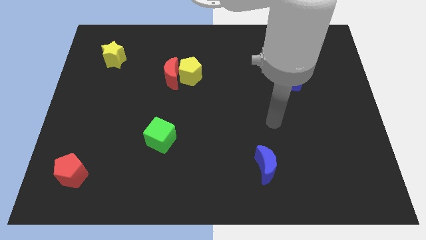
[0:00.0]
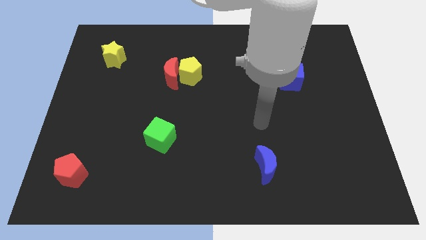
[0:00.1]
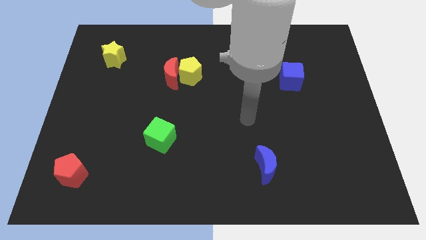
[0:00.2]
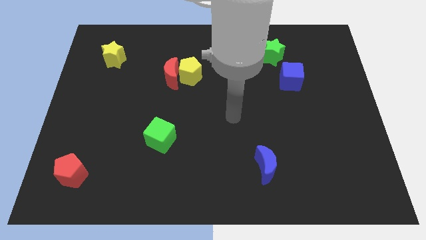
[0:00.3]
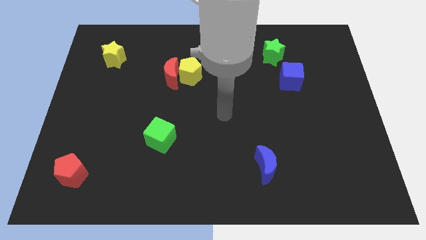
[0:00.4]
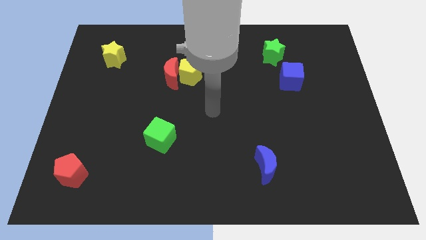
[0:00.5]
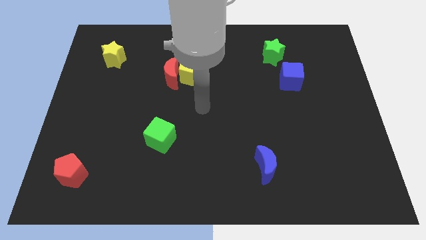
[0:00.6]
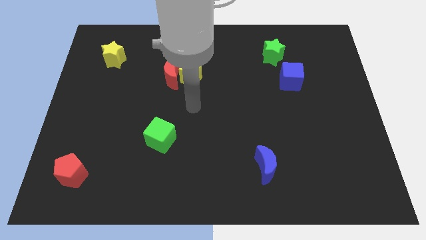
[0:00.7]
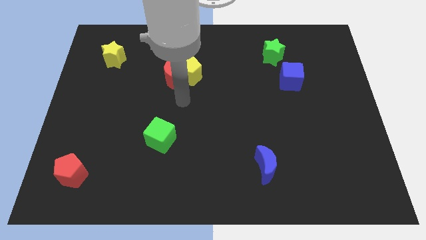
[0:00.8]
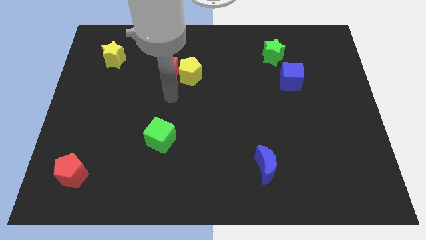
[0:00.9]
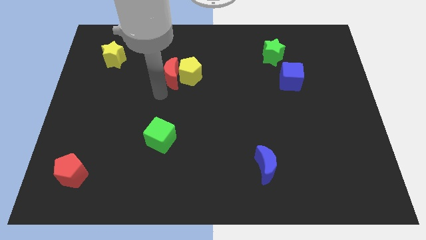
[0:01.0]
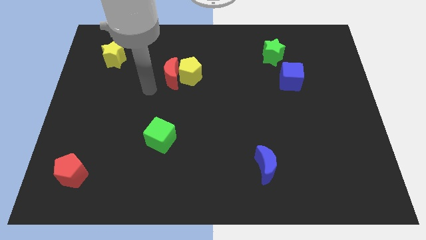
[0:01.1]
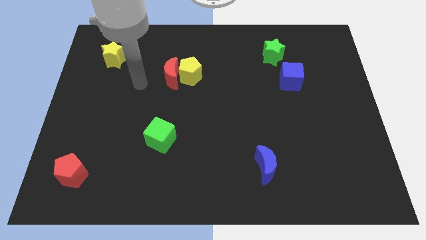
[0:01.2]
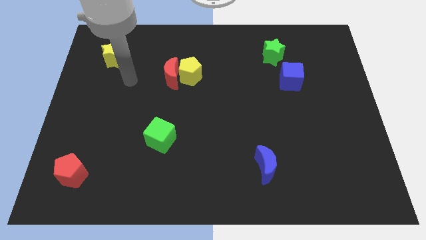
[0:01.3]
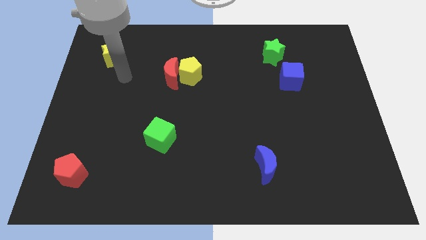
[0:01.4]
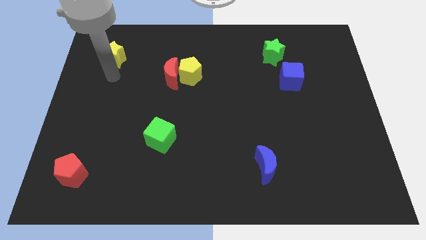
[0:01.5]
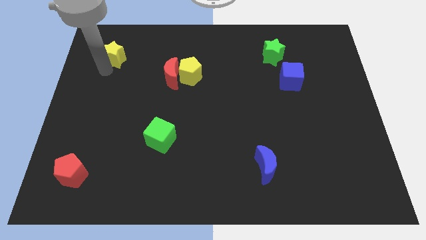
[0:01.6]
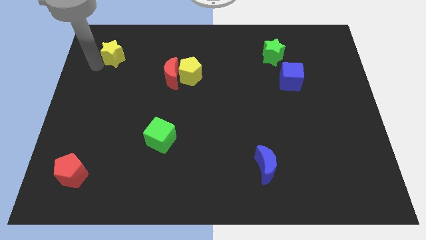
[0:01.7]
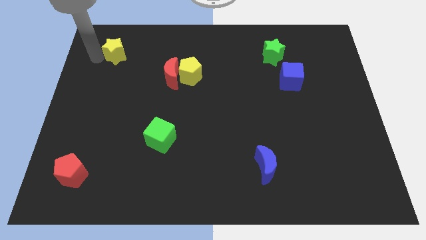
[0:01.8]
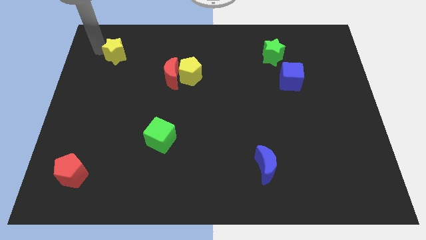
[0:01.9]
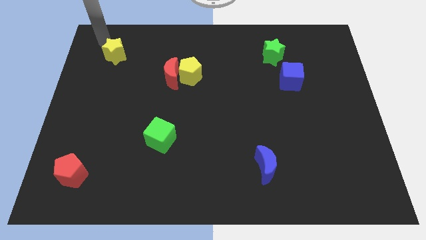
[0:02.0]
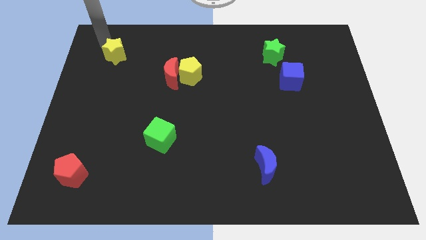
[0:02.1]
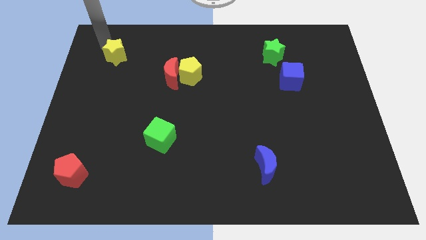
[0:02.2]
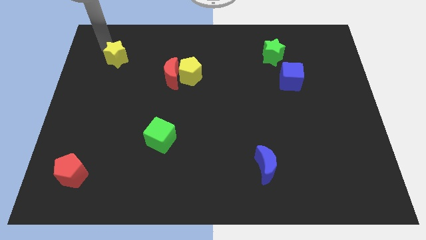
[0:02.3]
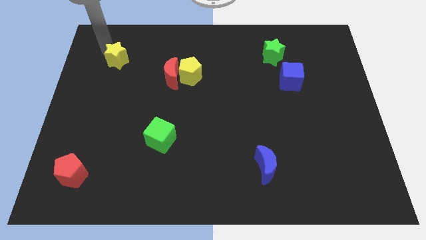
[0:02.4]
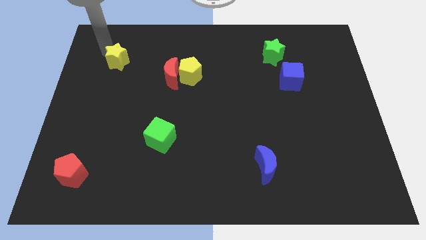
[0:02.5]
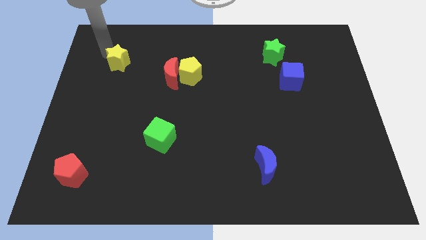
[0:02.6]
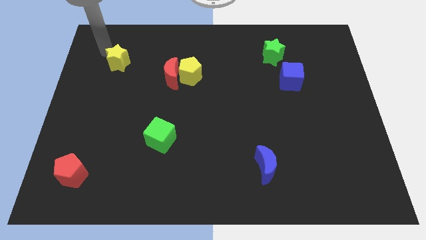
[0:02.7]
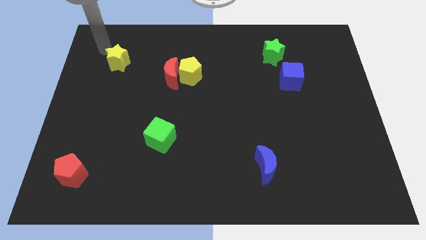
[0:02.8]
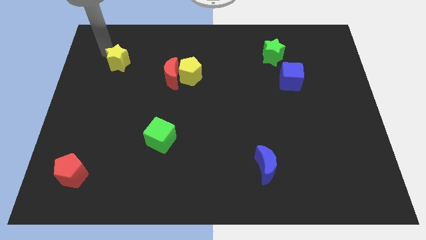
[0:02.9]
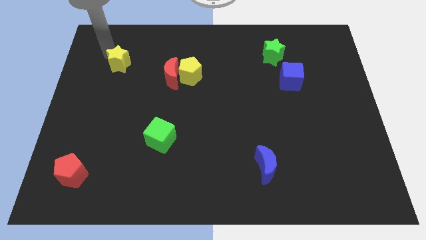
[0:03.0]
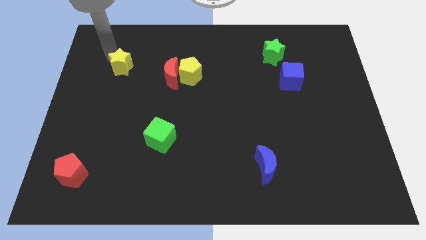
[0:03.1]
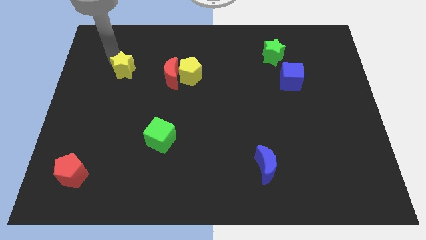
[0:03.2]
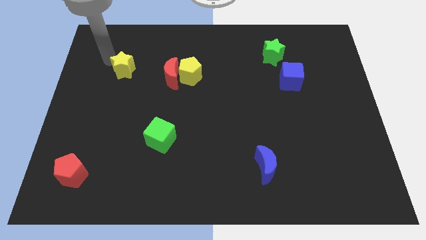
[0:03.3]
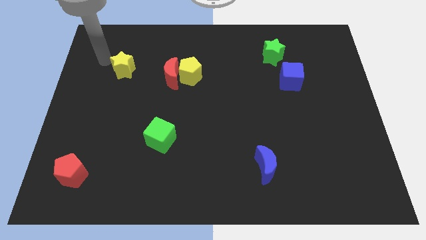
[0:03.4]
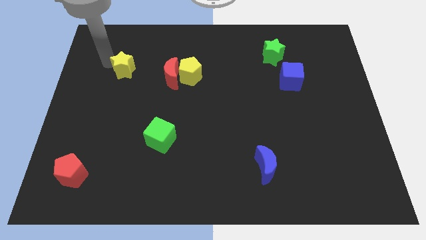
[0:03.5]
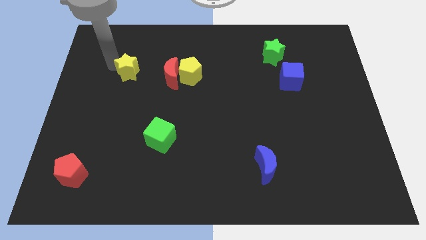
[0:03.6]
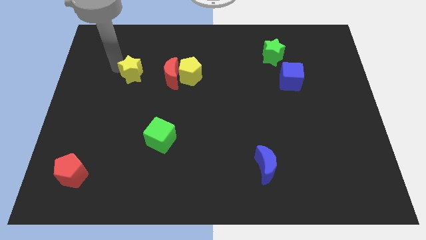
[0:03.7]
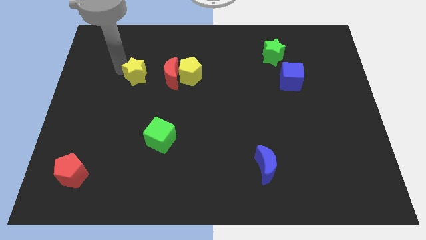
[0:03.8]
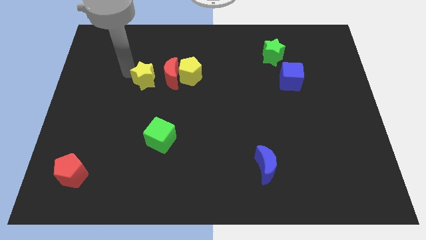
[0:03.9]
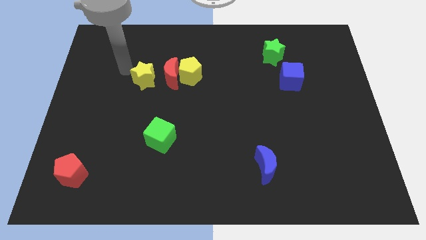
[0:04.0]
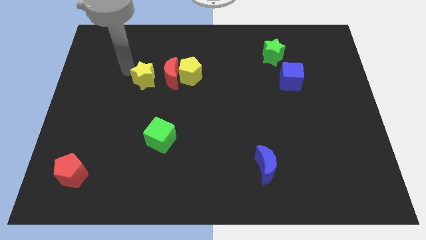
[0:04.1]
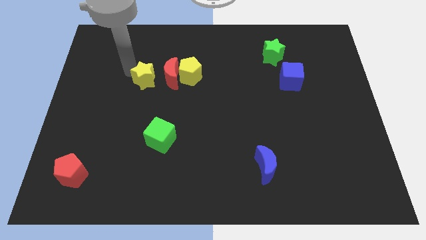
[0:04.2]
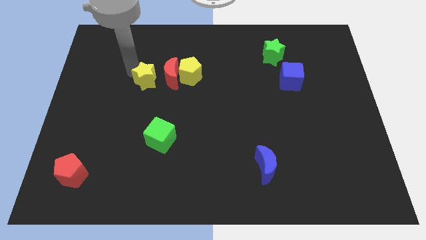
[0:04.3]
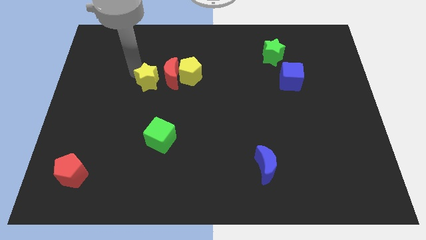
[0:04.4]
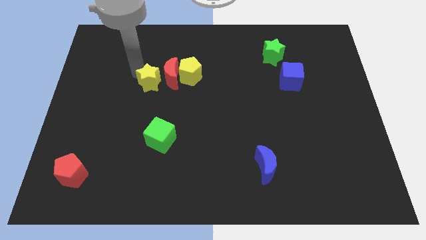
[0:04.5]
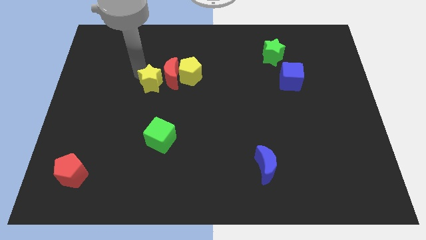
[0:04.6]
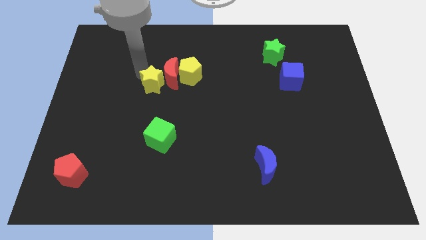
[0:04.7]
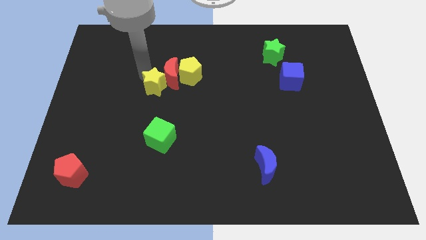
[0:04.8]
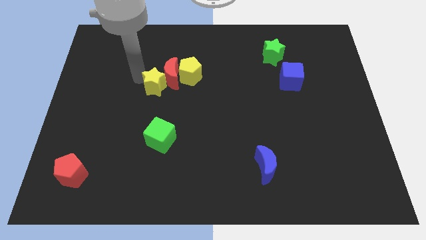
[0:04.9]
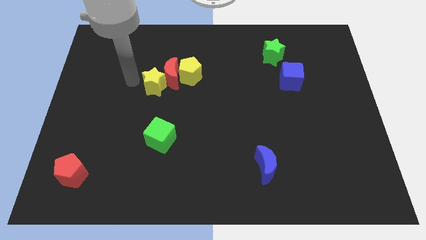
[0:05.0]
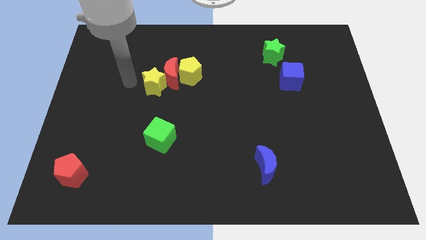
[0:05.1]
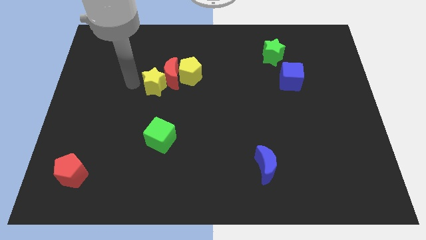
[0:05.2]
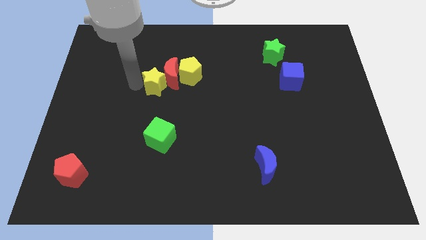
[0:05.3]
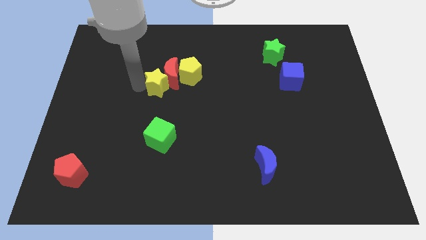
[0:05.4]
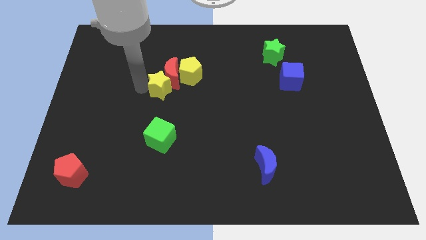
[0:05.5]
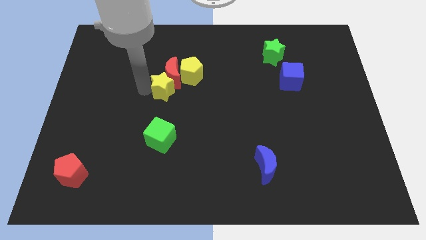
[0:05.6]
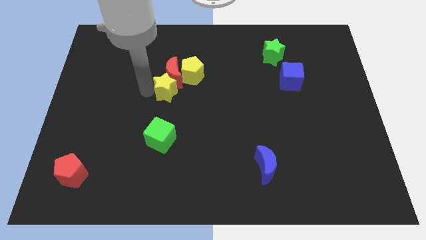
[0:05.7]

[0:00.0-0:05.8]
put the yellow star to the bottom right side of the red moon

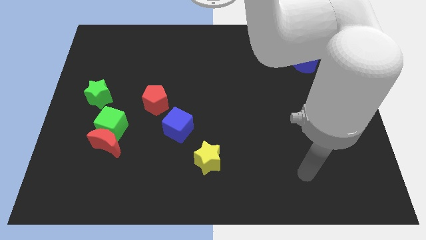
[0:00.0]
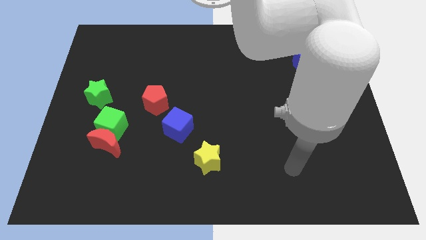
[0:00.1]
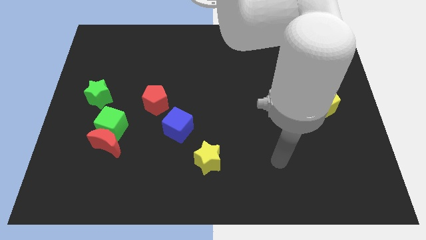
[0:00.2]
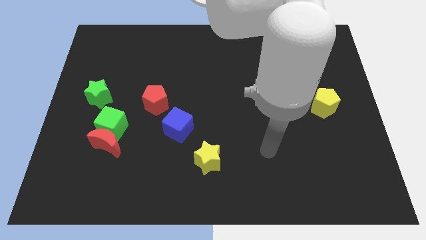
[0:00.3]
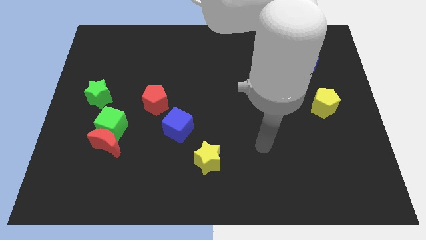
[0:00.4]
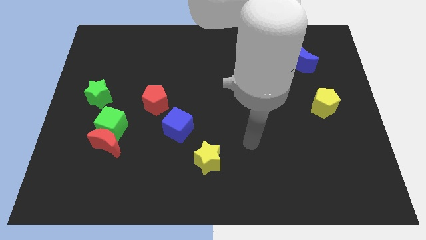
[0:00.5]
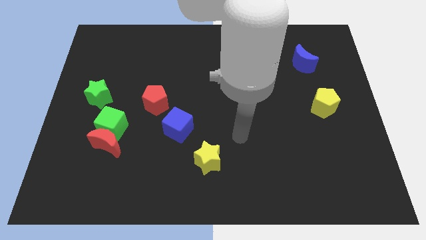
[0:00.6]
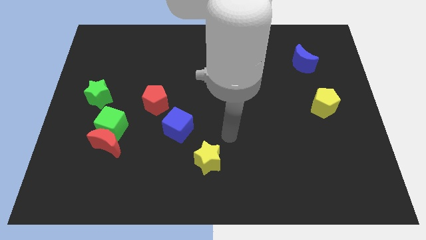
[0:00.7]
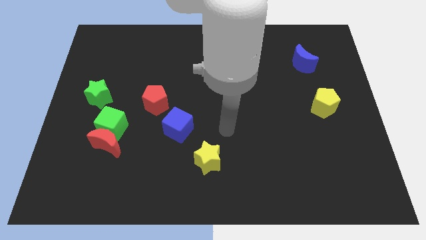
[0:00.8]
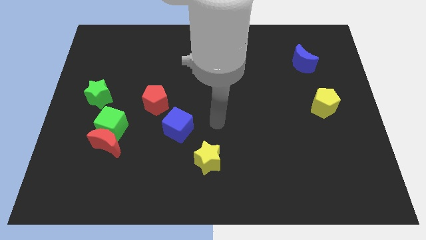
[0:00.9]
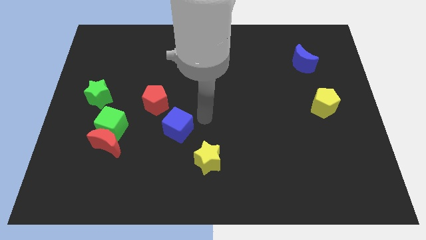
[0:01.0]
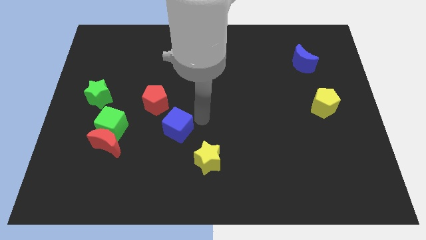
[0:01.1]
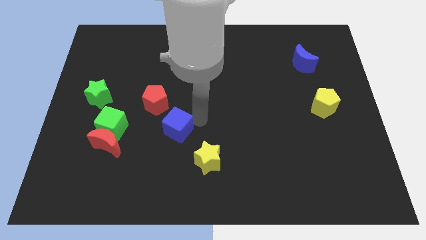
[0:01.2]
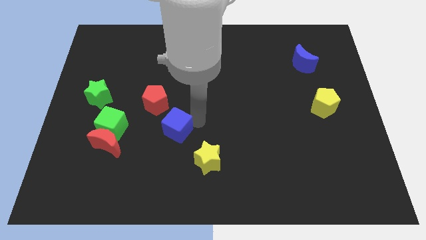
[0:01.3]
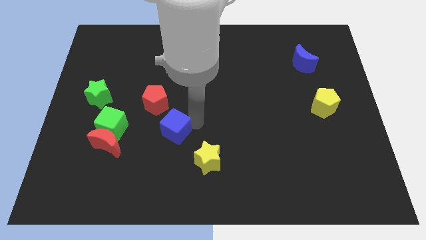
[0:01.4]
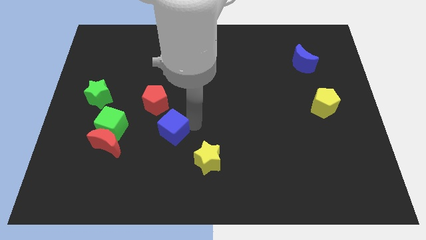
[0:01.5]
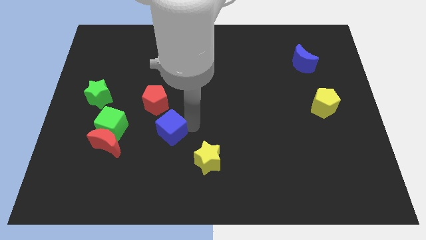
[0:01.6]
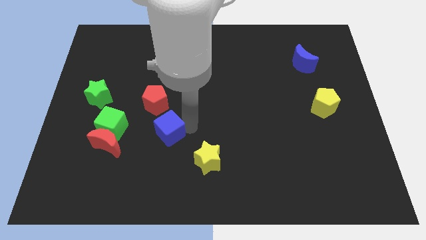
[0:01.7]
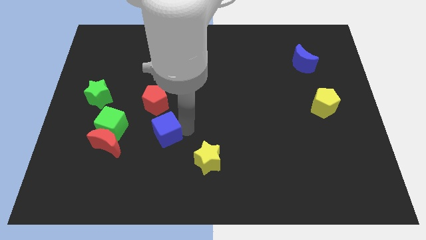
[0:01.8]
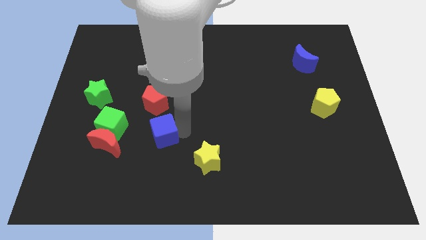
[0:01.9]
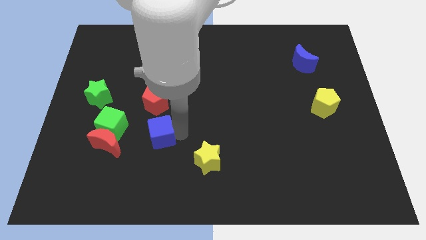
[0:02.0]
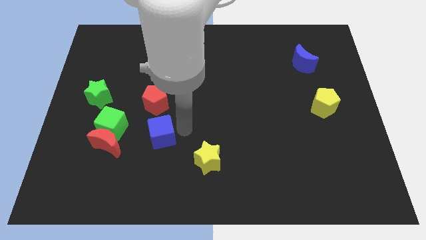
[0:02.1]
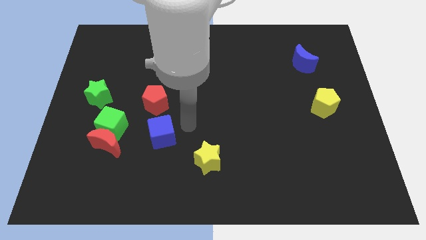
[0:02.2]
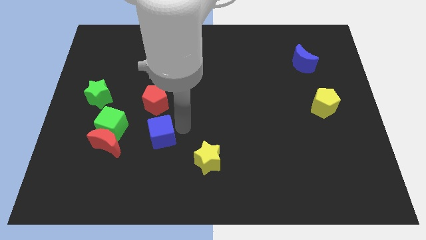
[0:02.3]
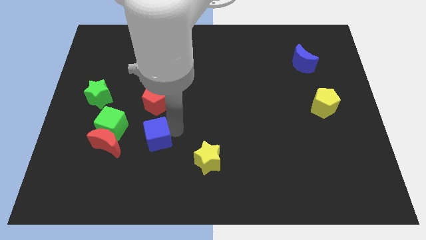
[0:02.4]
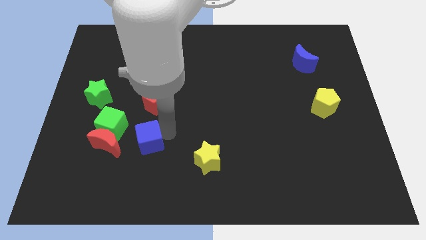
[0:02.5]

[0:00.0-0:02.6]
put the blue cube to the bottom right side of the green cube
